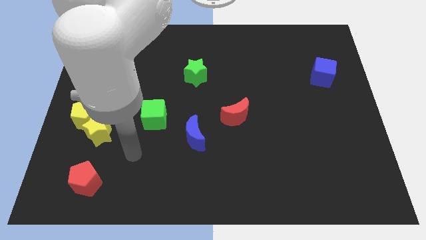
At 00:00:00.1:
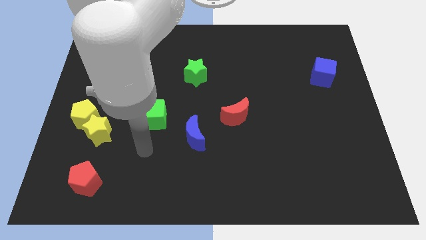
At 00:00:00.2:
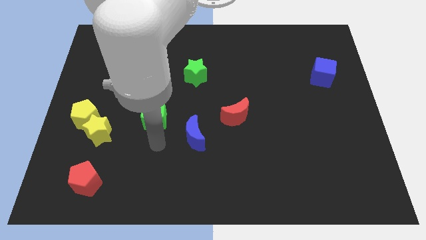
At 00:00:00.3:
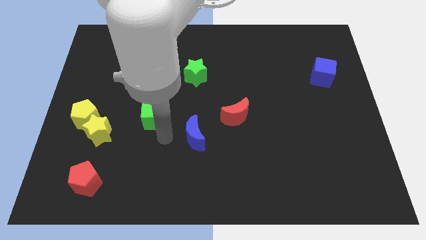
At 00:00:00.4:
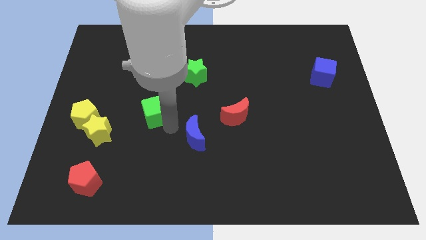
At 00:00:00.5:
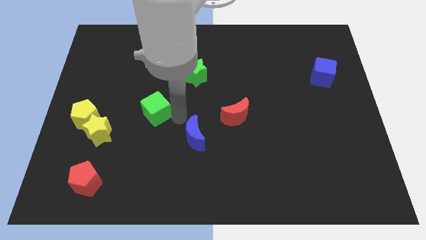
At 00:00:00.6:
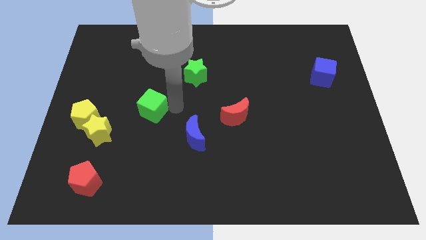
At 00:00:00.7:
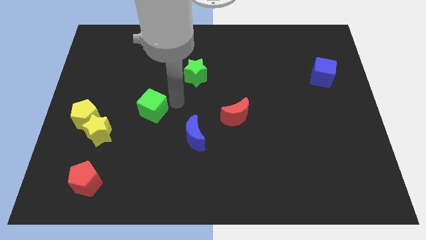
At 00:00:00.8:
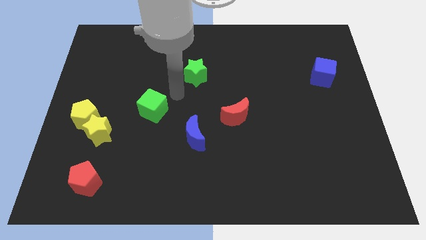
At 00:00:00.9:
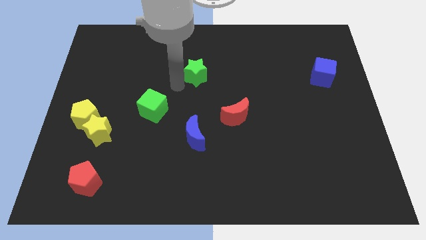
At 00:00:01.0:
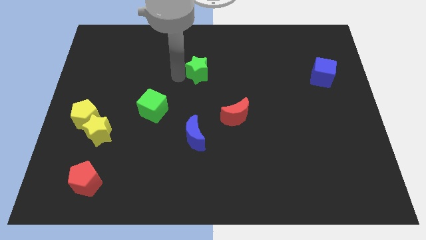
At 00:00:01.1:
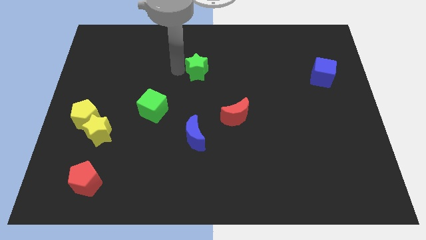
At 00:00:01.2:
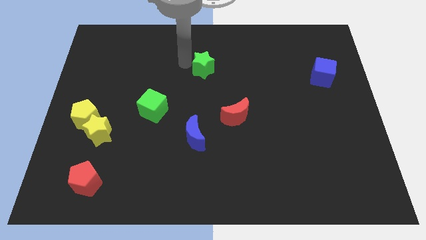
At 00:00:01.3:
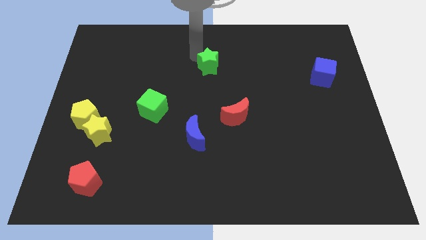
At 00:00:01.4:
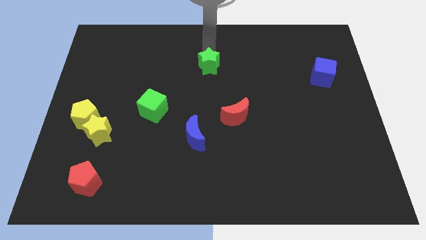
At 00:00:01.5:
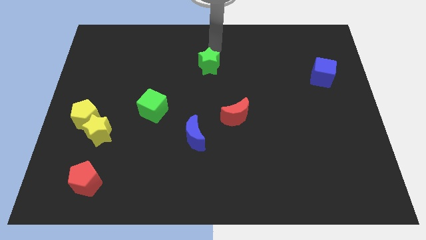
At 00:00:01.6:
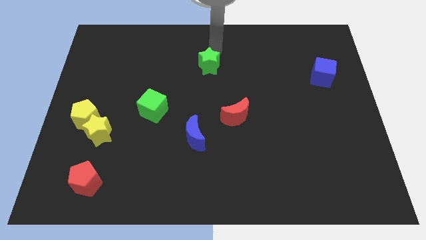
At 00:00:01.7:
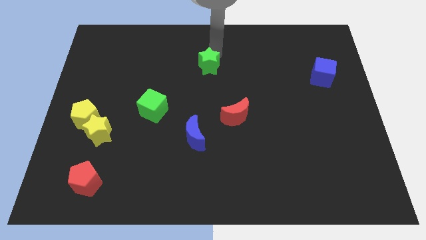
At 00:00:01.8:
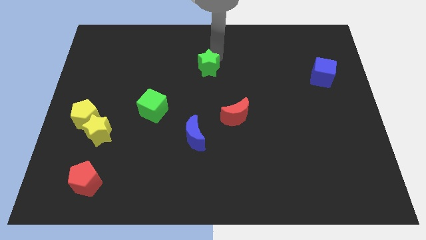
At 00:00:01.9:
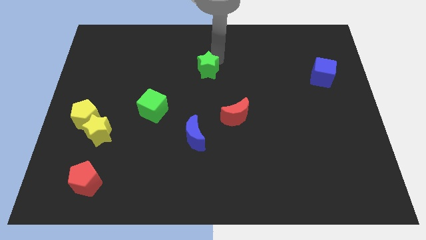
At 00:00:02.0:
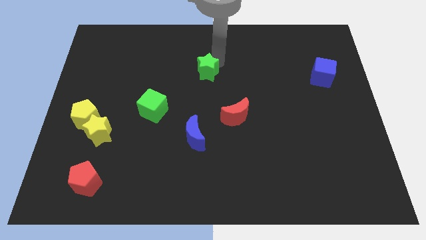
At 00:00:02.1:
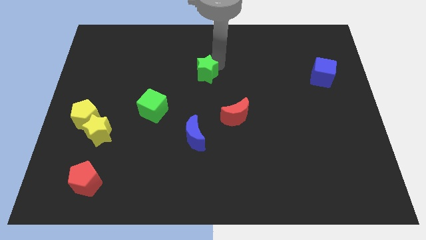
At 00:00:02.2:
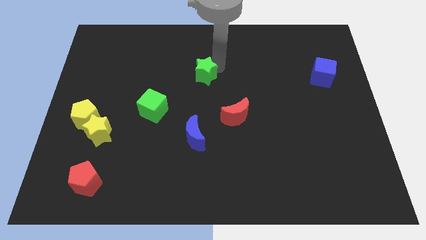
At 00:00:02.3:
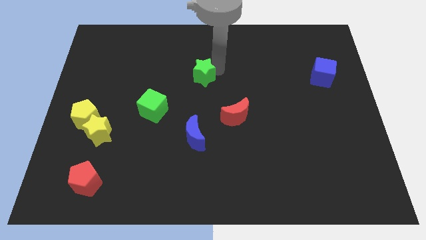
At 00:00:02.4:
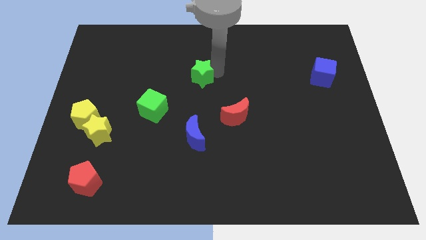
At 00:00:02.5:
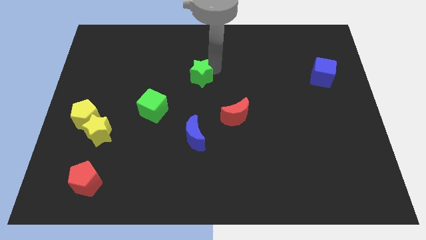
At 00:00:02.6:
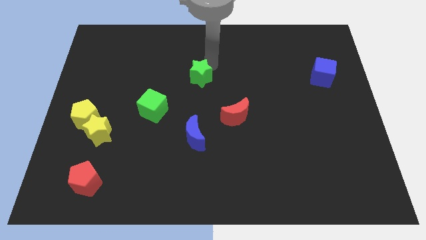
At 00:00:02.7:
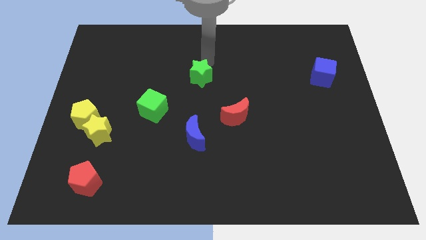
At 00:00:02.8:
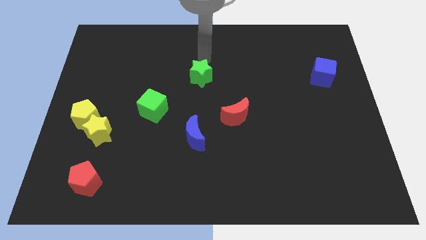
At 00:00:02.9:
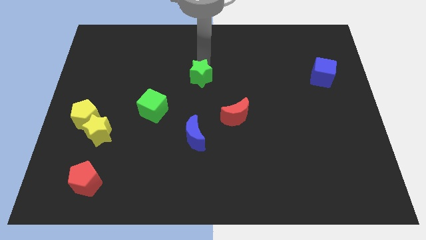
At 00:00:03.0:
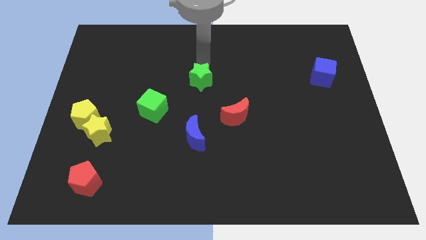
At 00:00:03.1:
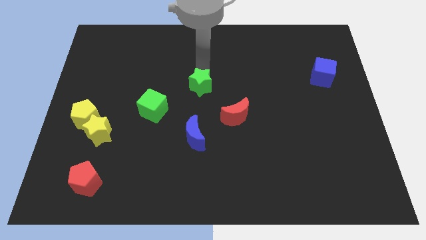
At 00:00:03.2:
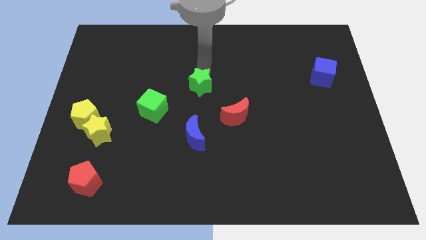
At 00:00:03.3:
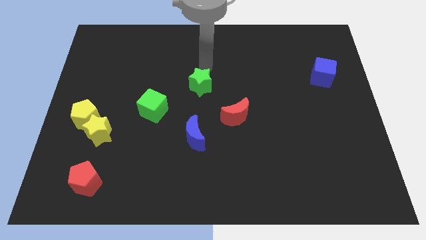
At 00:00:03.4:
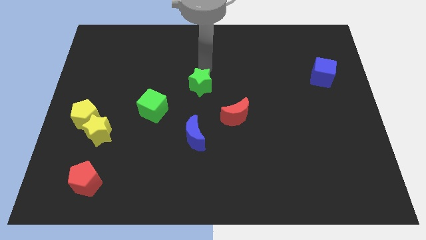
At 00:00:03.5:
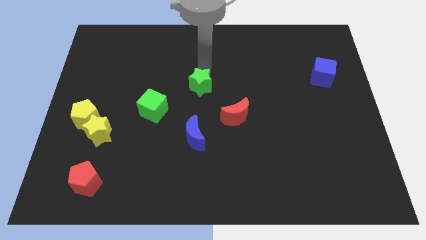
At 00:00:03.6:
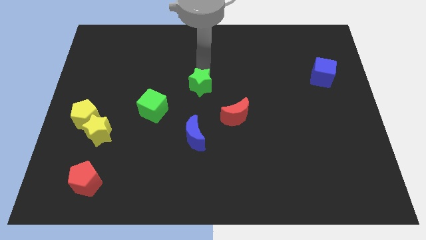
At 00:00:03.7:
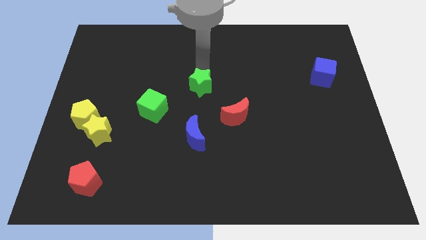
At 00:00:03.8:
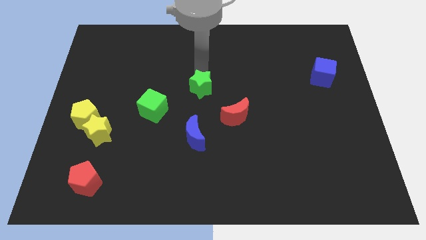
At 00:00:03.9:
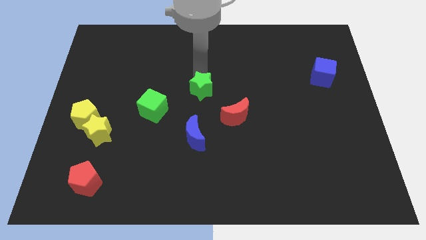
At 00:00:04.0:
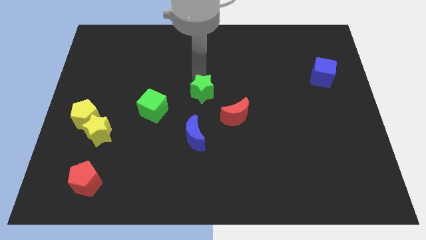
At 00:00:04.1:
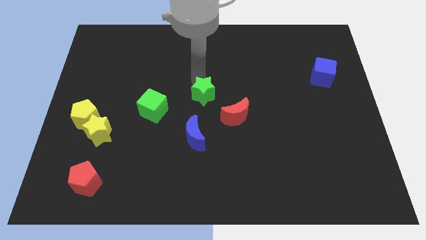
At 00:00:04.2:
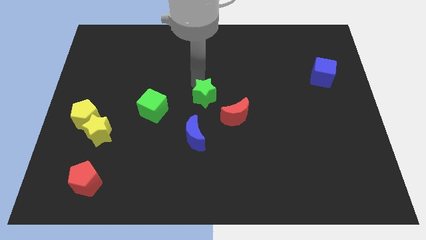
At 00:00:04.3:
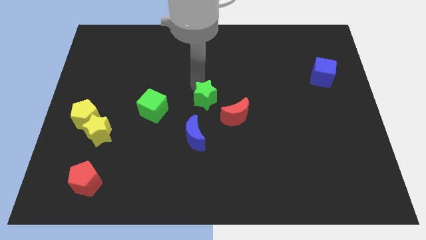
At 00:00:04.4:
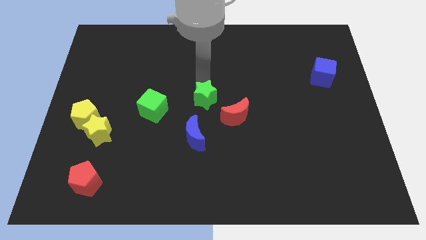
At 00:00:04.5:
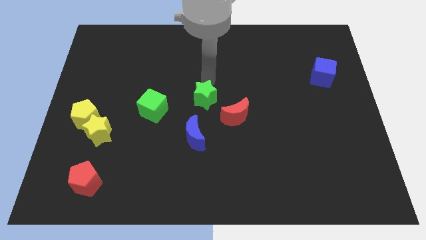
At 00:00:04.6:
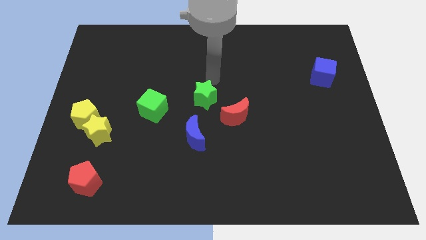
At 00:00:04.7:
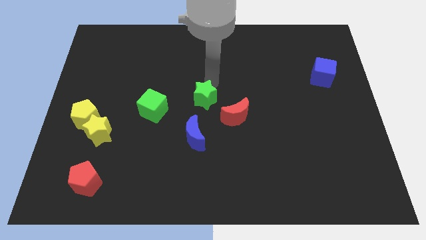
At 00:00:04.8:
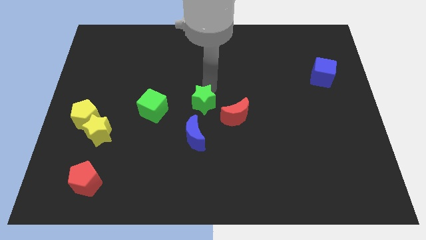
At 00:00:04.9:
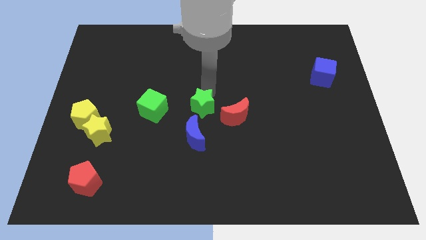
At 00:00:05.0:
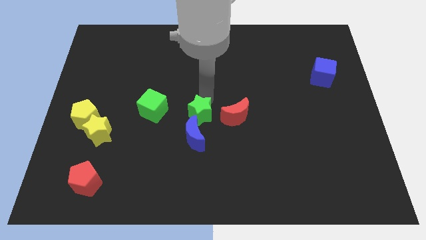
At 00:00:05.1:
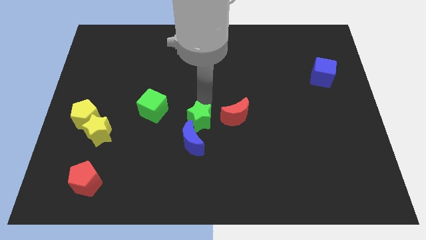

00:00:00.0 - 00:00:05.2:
move the green star towards the blue moon
